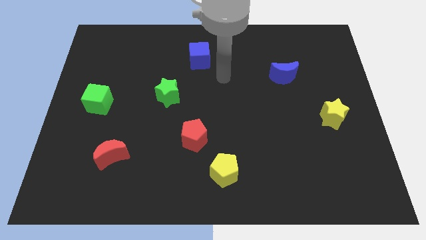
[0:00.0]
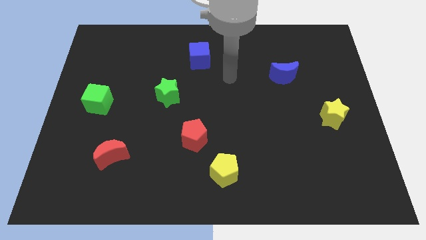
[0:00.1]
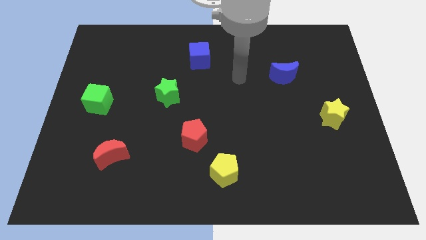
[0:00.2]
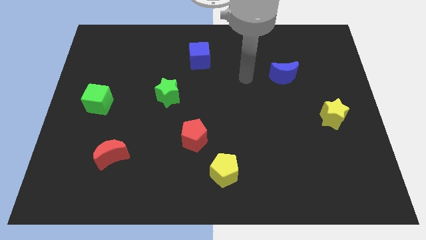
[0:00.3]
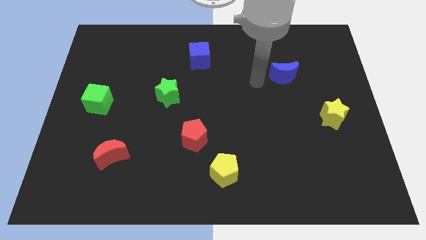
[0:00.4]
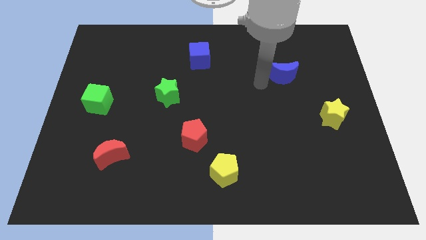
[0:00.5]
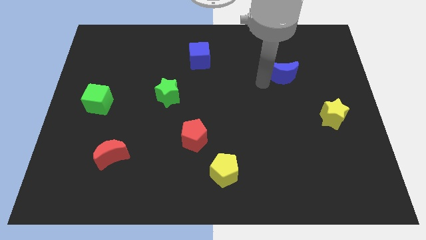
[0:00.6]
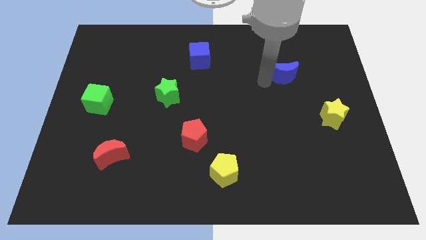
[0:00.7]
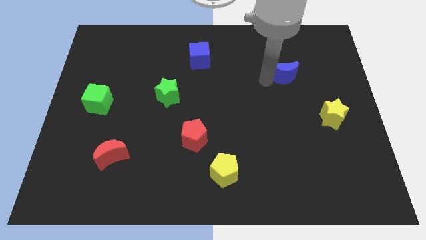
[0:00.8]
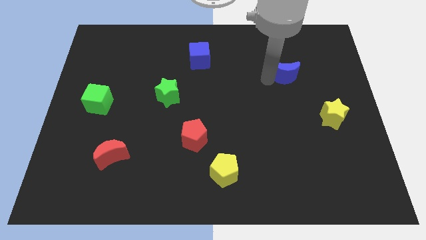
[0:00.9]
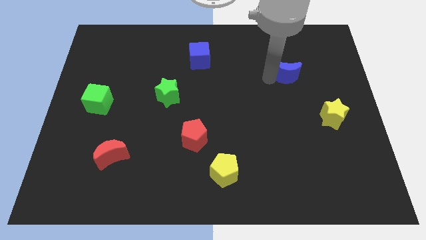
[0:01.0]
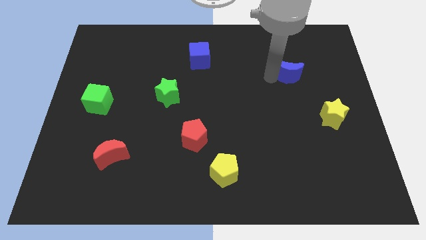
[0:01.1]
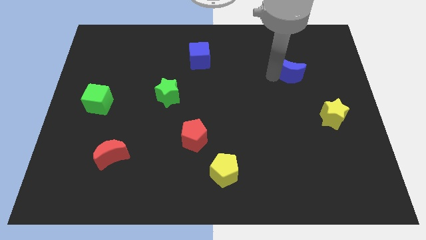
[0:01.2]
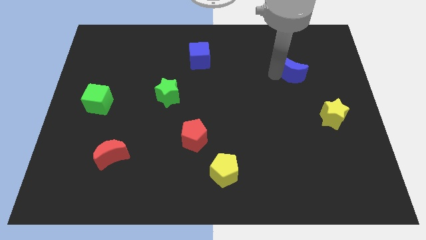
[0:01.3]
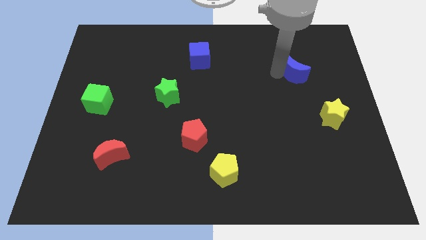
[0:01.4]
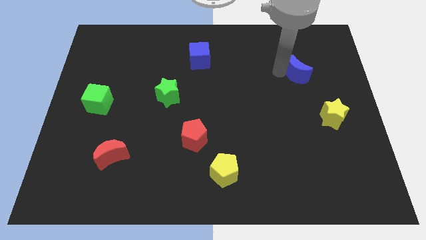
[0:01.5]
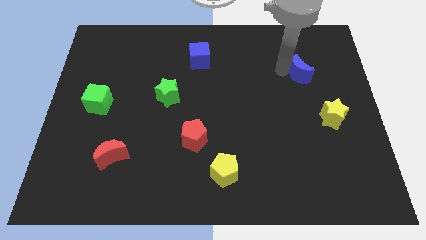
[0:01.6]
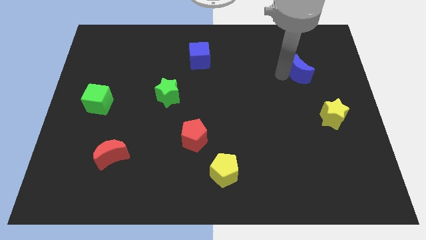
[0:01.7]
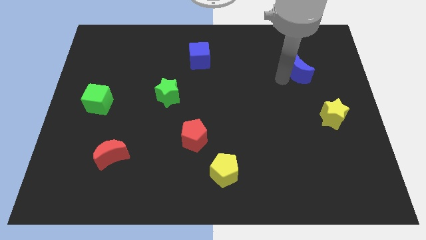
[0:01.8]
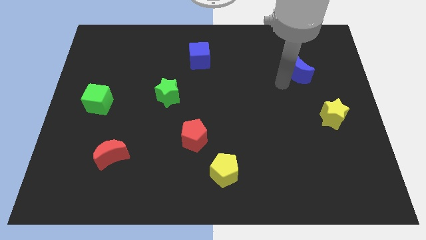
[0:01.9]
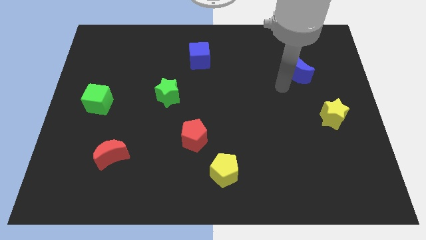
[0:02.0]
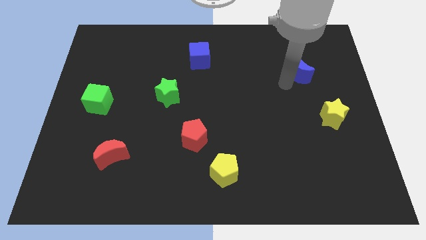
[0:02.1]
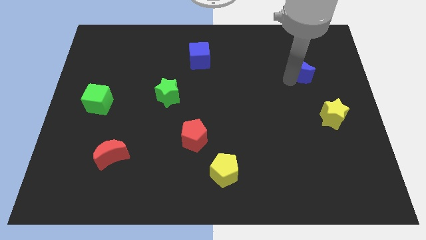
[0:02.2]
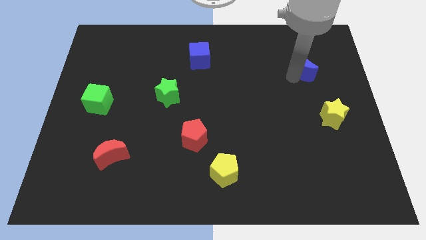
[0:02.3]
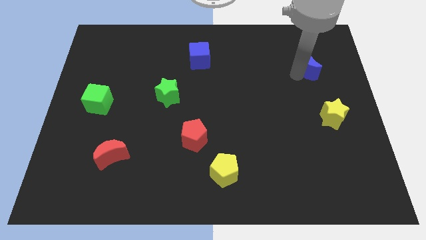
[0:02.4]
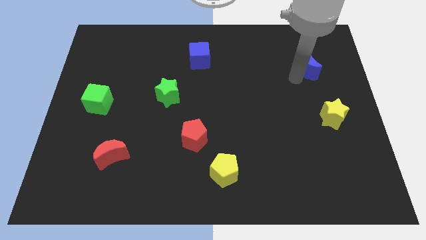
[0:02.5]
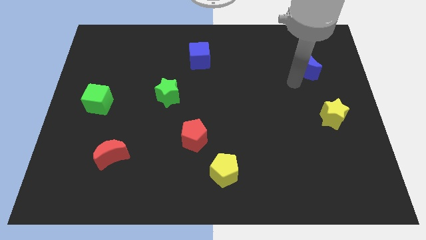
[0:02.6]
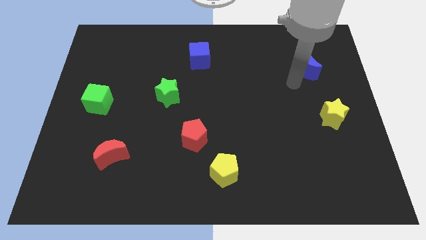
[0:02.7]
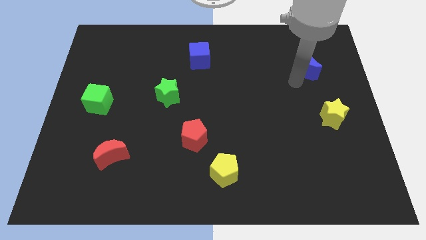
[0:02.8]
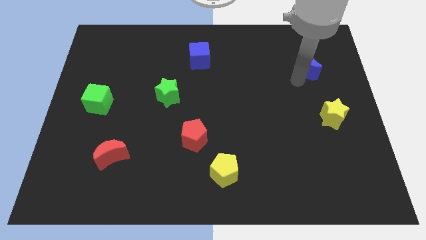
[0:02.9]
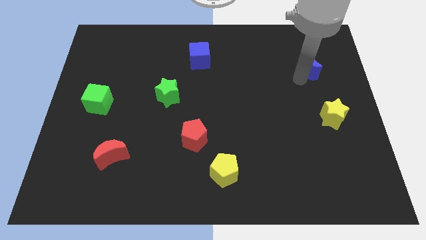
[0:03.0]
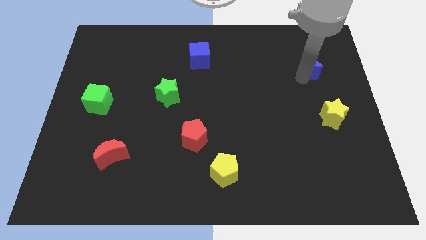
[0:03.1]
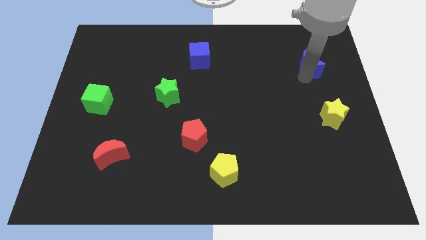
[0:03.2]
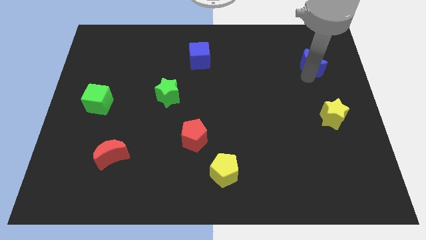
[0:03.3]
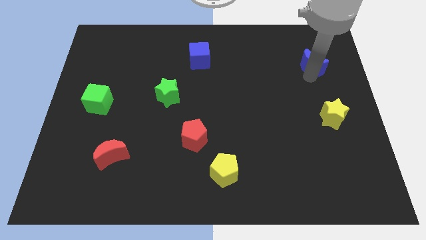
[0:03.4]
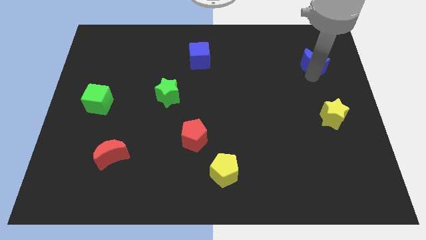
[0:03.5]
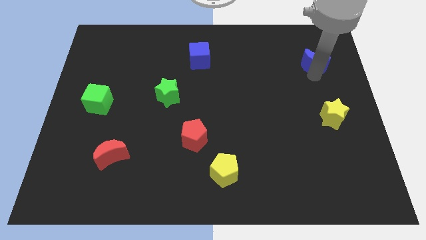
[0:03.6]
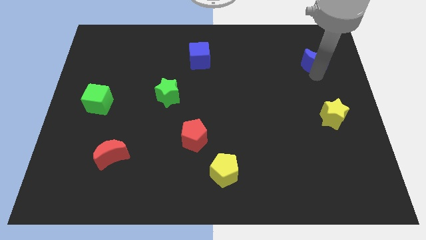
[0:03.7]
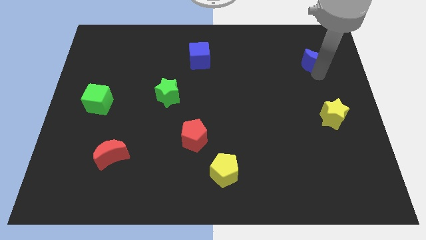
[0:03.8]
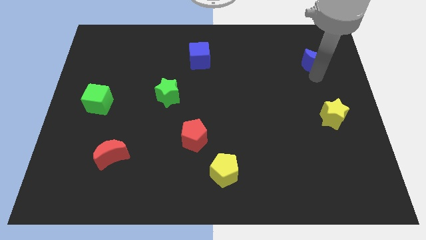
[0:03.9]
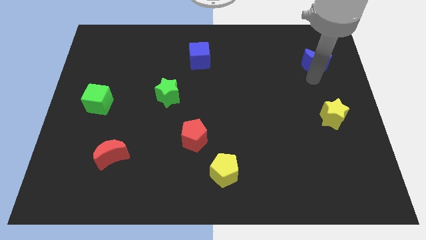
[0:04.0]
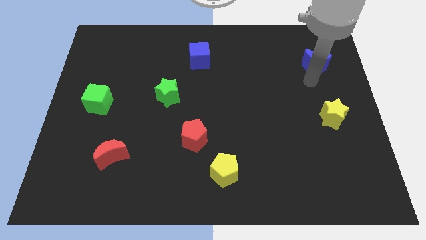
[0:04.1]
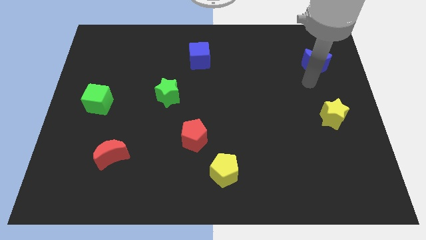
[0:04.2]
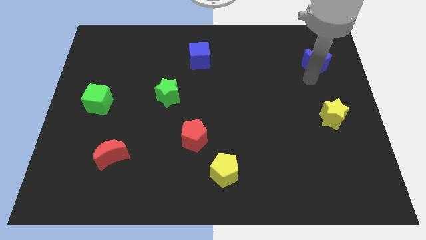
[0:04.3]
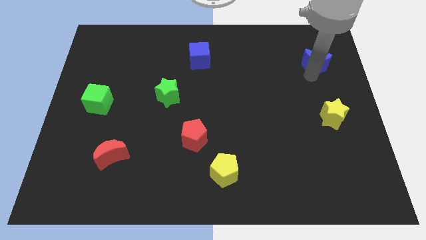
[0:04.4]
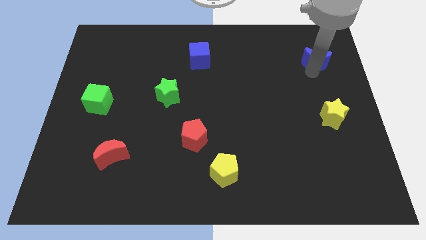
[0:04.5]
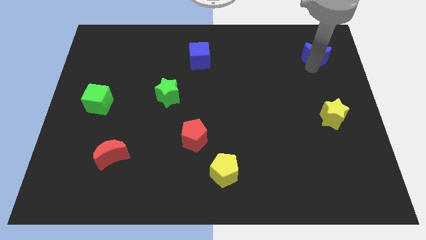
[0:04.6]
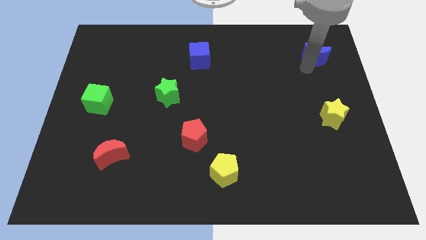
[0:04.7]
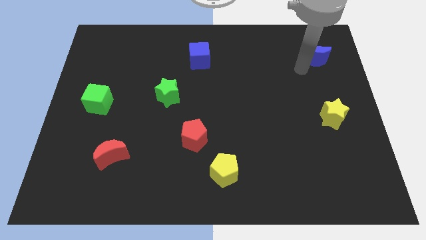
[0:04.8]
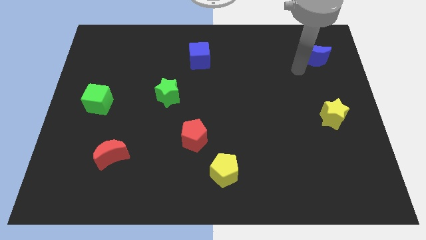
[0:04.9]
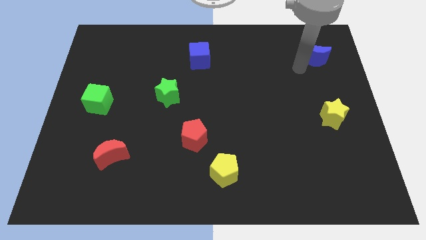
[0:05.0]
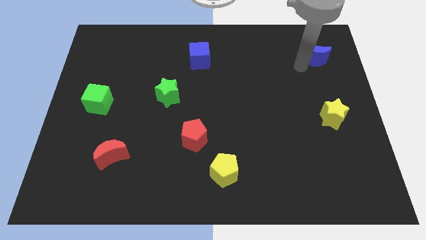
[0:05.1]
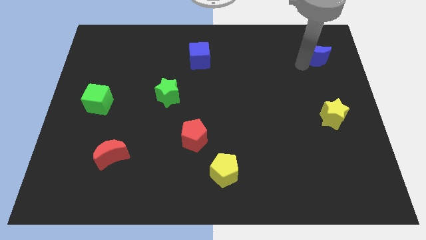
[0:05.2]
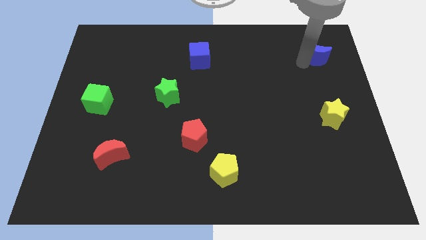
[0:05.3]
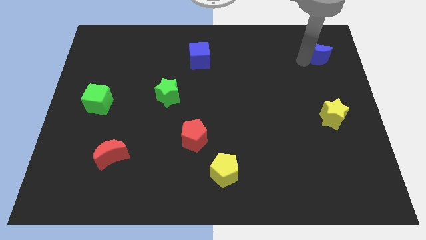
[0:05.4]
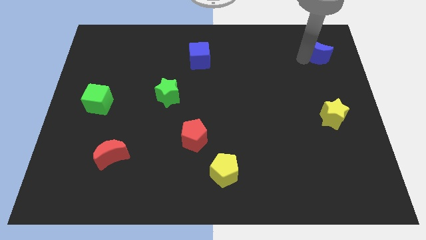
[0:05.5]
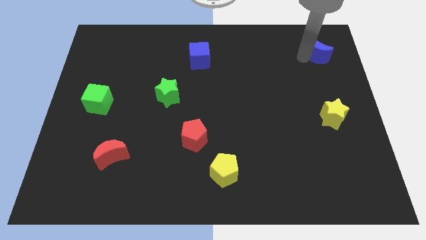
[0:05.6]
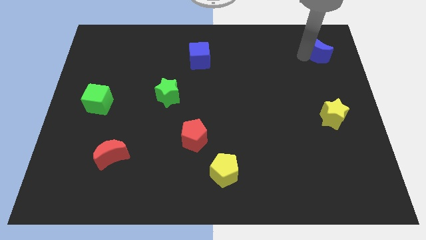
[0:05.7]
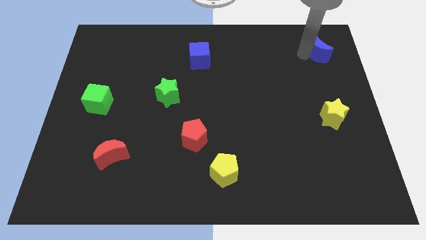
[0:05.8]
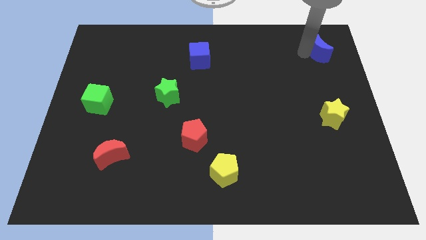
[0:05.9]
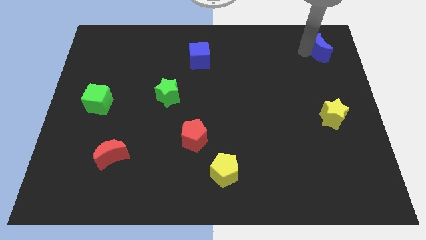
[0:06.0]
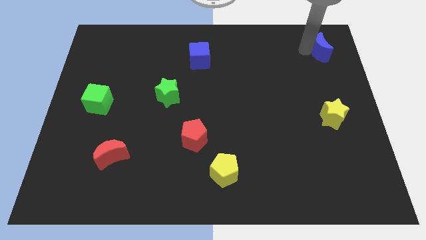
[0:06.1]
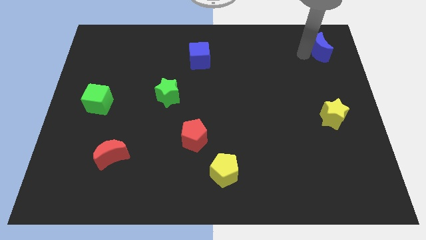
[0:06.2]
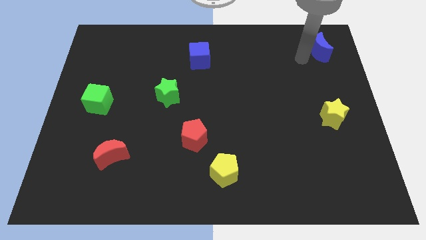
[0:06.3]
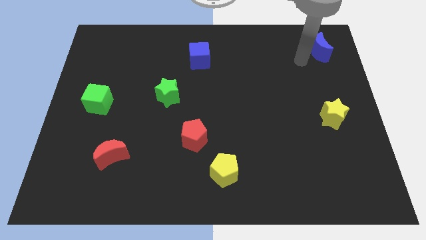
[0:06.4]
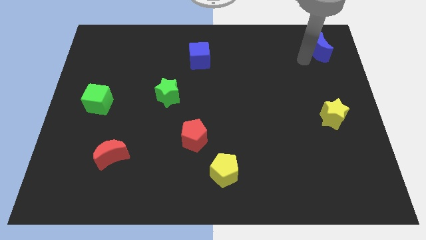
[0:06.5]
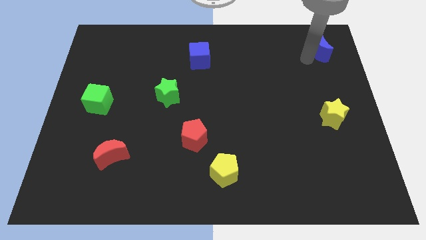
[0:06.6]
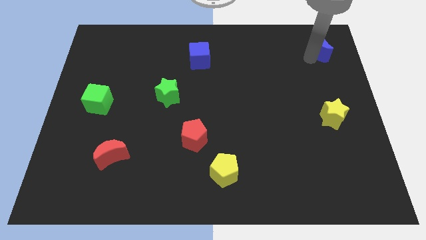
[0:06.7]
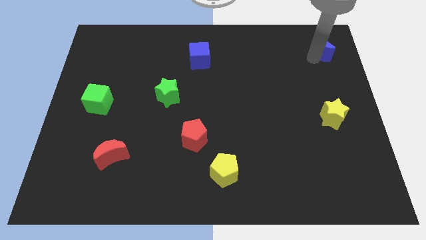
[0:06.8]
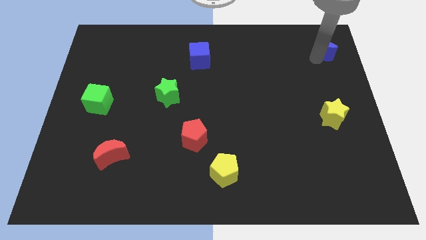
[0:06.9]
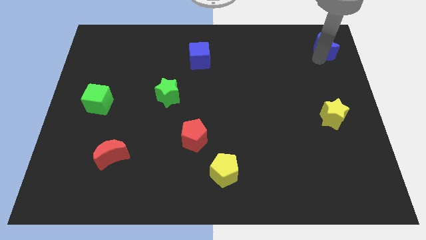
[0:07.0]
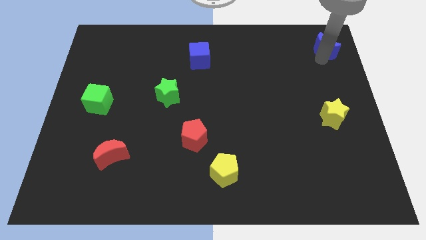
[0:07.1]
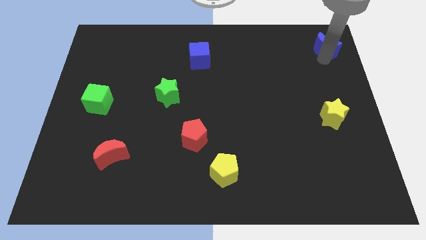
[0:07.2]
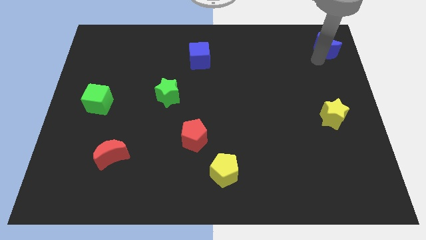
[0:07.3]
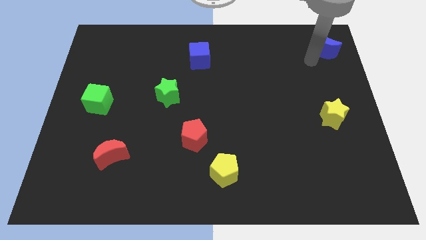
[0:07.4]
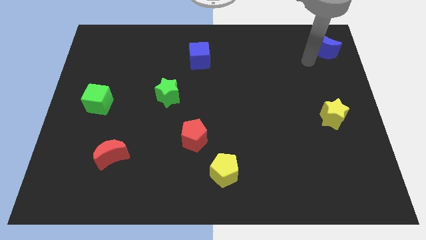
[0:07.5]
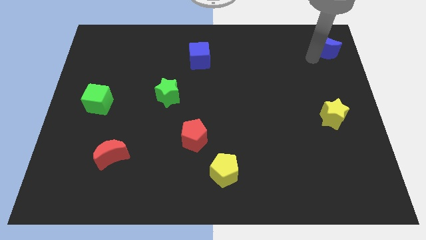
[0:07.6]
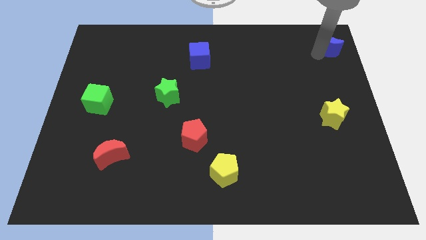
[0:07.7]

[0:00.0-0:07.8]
move the blue moon to the upper right corner
